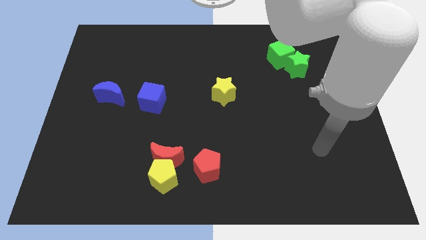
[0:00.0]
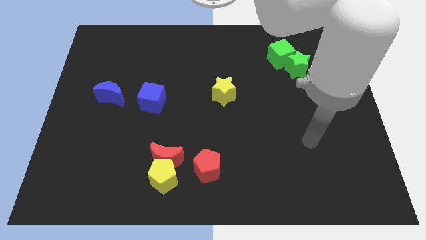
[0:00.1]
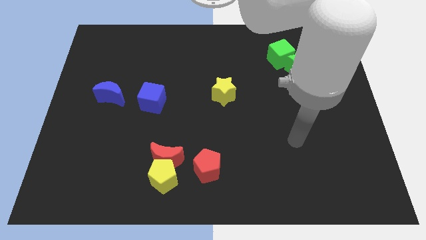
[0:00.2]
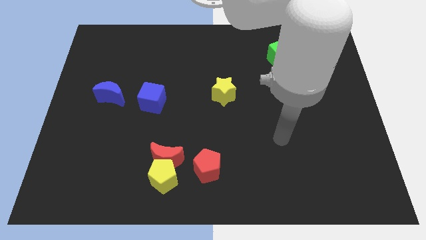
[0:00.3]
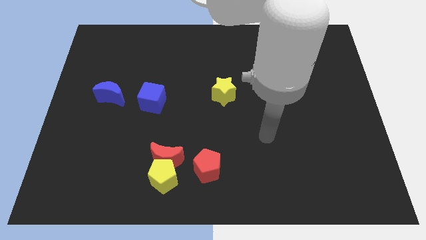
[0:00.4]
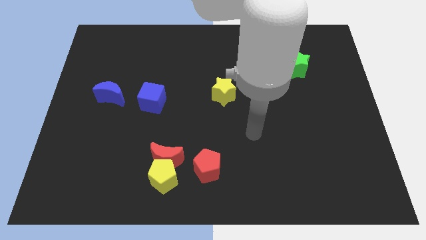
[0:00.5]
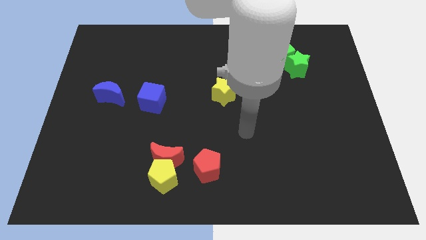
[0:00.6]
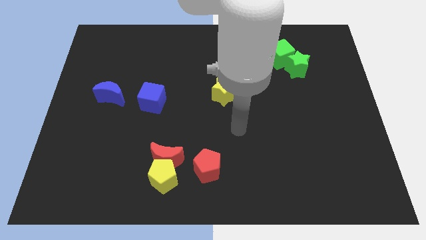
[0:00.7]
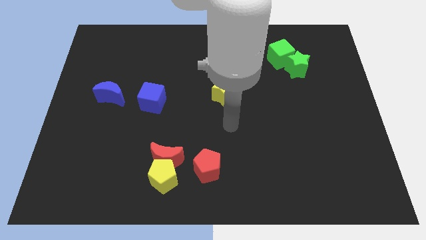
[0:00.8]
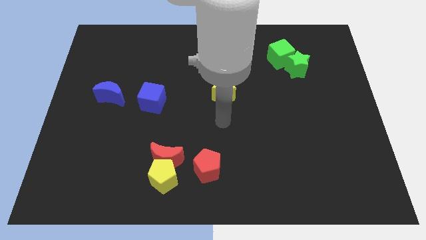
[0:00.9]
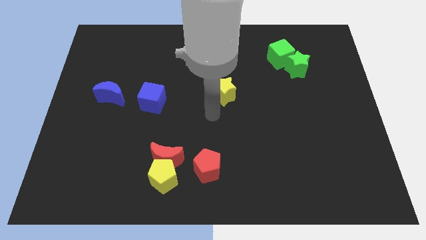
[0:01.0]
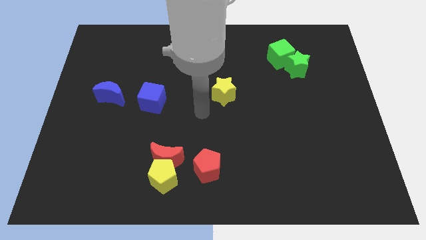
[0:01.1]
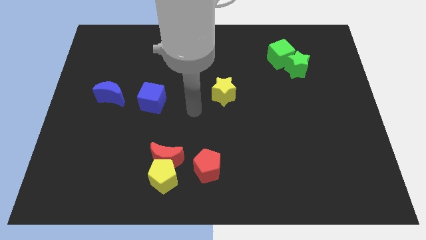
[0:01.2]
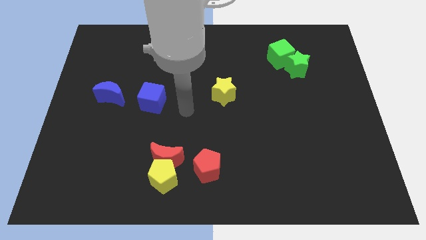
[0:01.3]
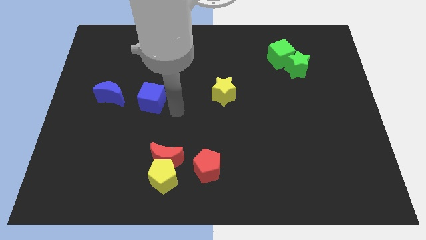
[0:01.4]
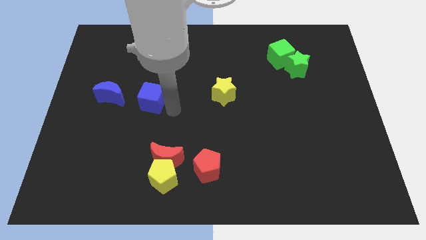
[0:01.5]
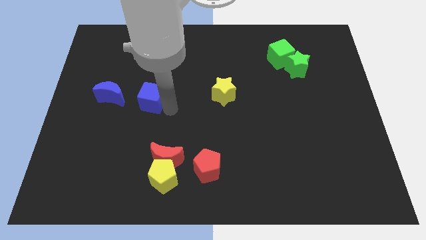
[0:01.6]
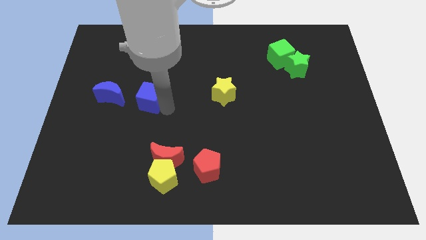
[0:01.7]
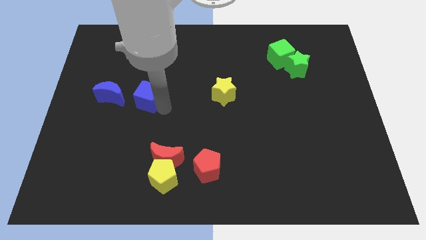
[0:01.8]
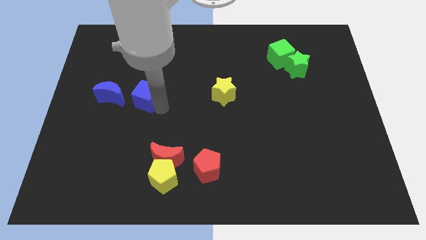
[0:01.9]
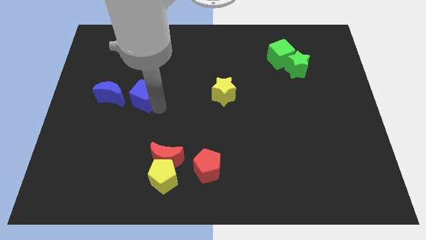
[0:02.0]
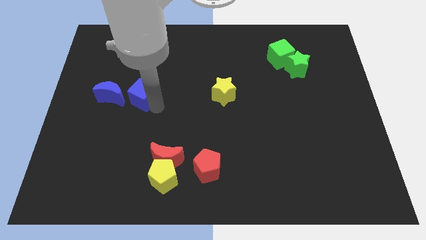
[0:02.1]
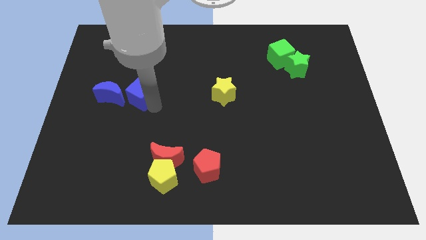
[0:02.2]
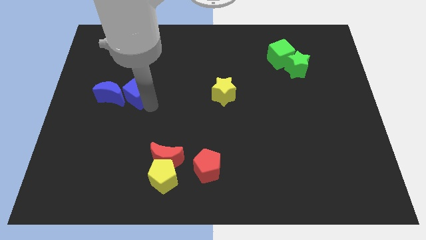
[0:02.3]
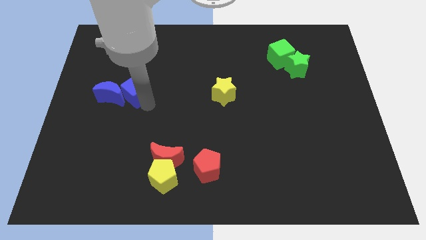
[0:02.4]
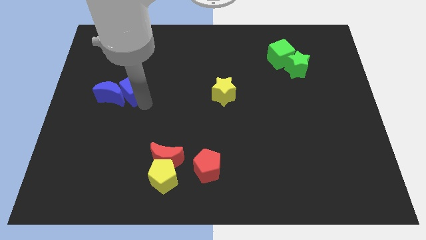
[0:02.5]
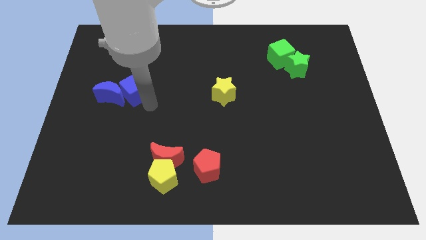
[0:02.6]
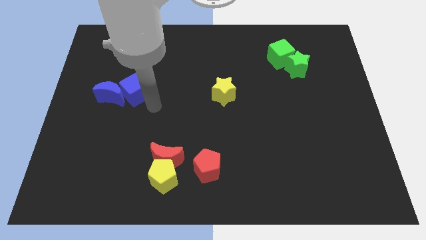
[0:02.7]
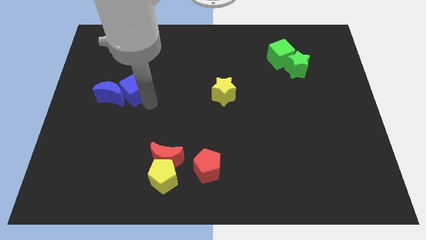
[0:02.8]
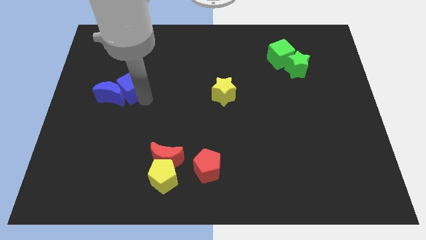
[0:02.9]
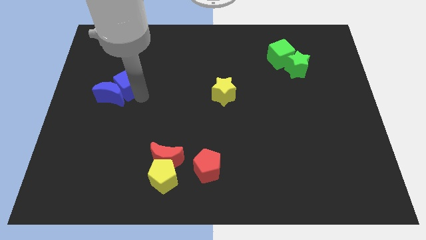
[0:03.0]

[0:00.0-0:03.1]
push the blue cube a little up and then to the left

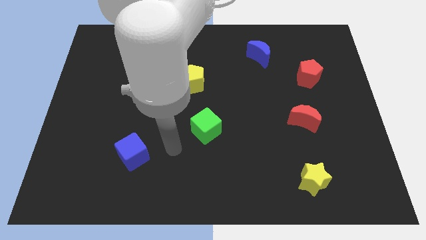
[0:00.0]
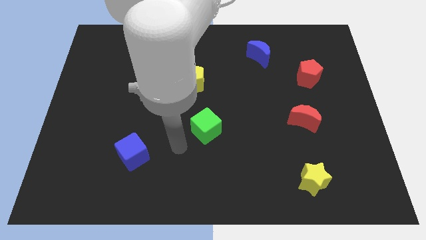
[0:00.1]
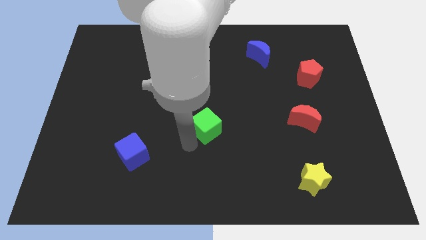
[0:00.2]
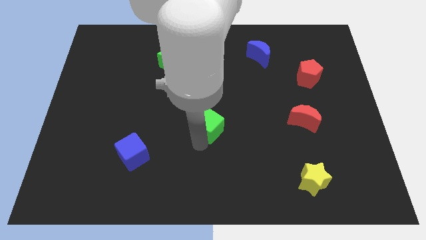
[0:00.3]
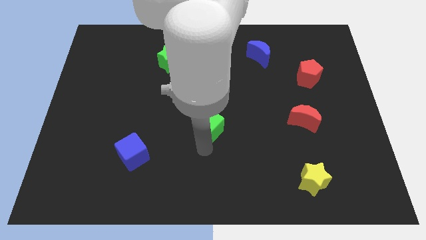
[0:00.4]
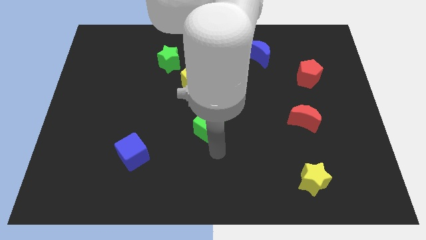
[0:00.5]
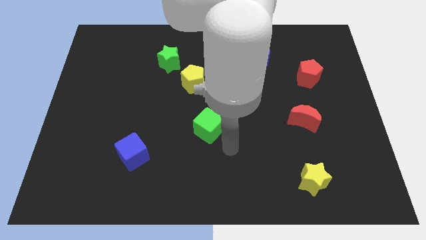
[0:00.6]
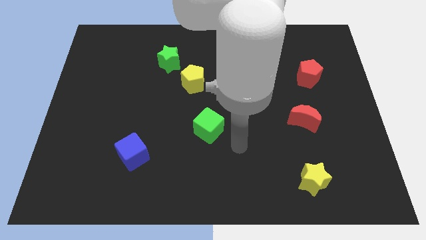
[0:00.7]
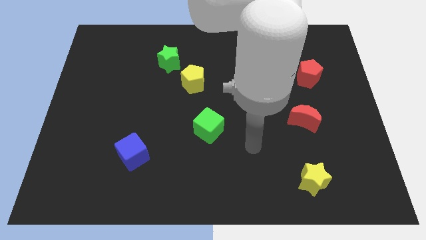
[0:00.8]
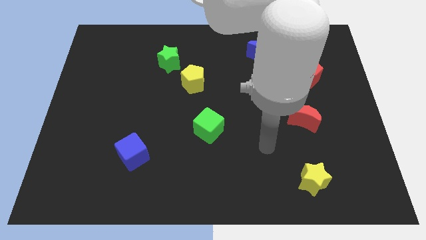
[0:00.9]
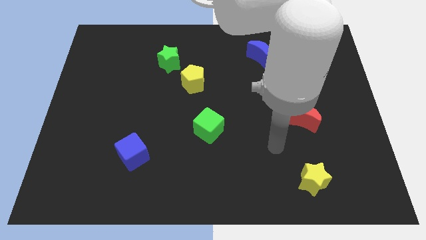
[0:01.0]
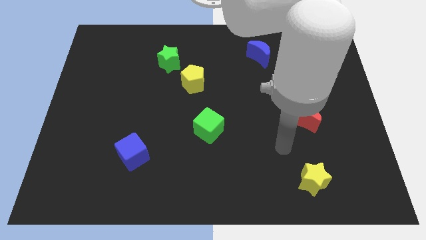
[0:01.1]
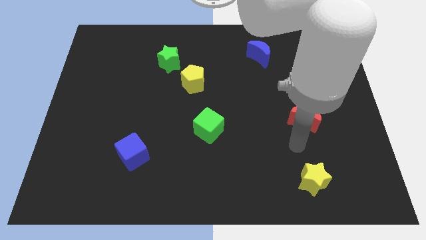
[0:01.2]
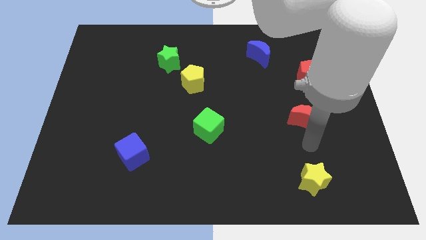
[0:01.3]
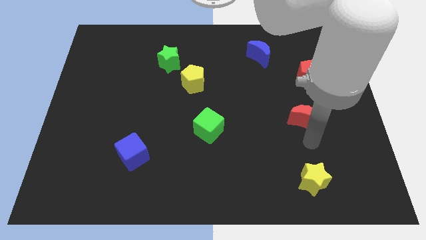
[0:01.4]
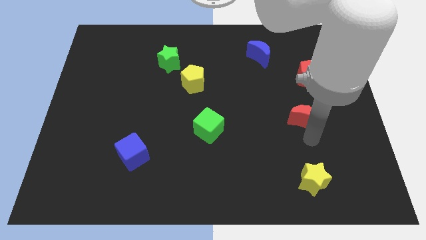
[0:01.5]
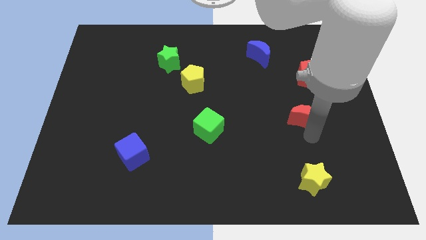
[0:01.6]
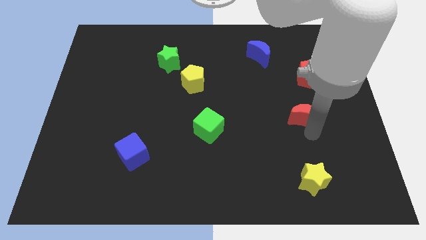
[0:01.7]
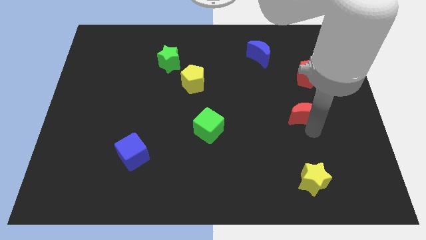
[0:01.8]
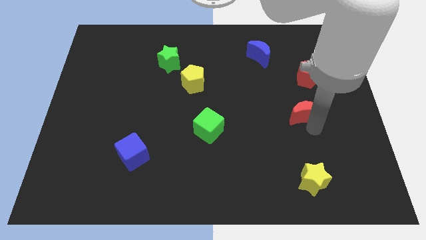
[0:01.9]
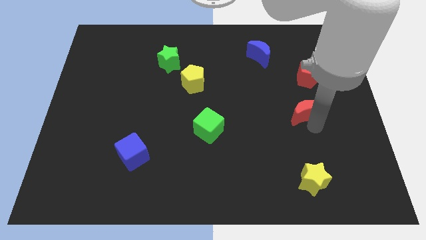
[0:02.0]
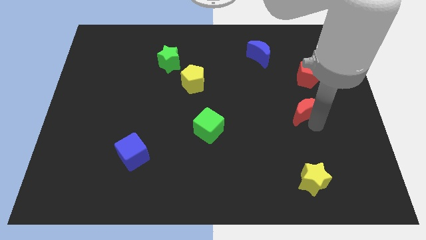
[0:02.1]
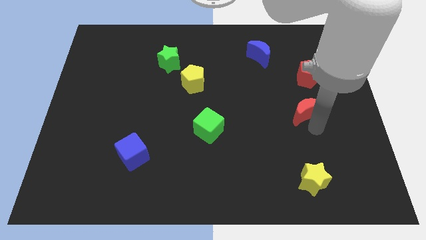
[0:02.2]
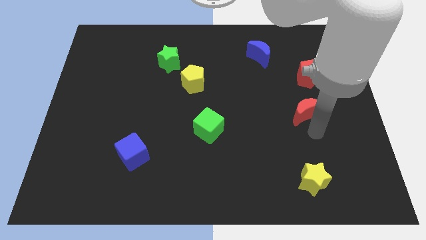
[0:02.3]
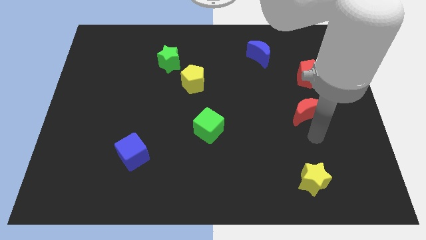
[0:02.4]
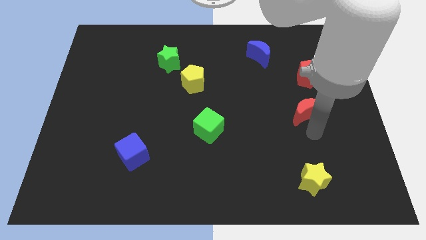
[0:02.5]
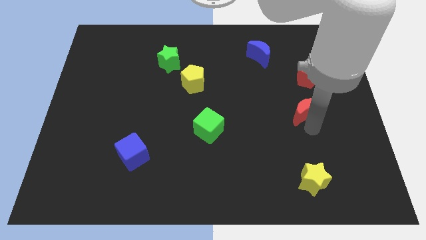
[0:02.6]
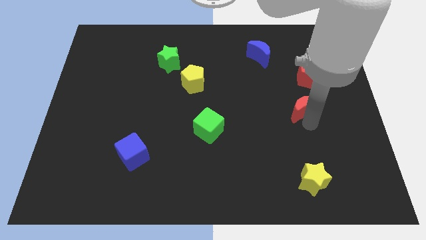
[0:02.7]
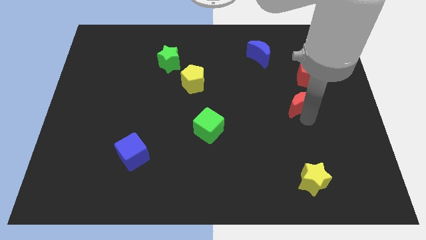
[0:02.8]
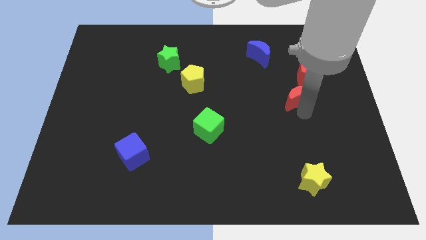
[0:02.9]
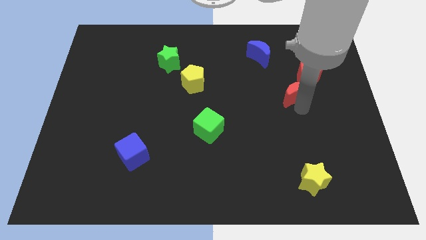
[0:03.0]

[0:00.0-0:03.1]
slightly push the red moon upwards

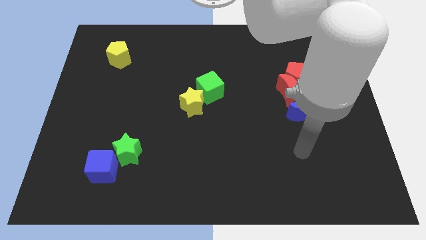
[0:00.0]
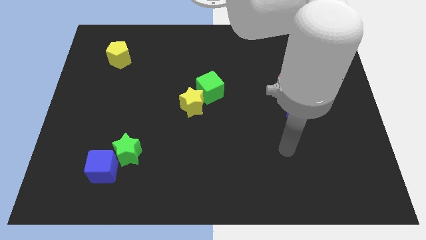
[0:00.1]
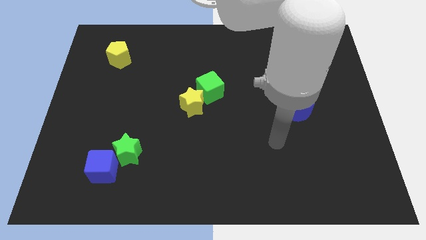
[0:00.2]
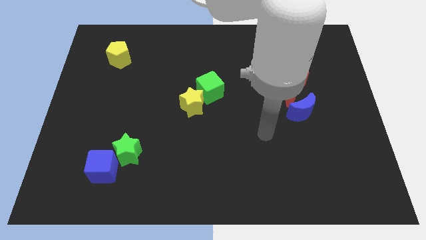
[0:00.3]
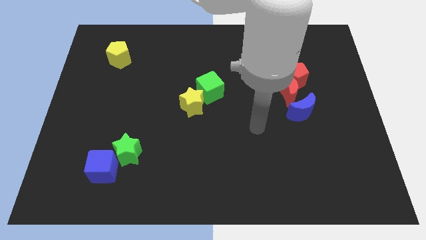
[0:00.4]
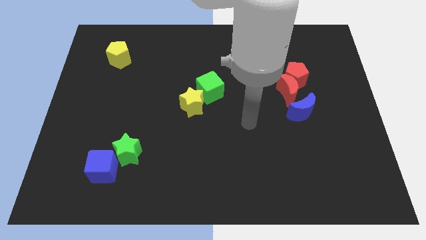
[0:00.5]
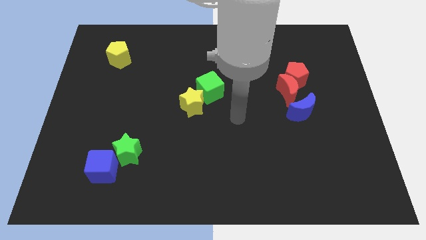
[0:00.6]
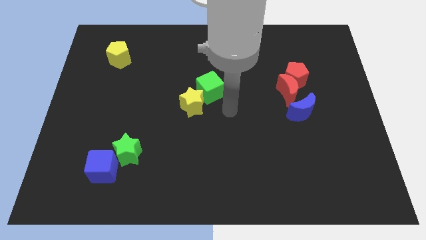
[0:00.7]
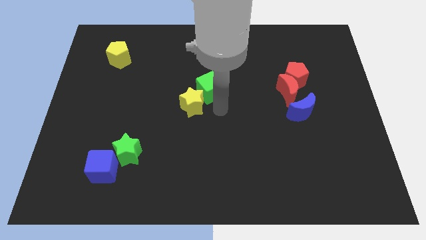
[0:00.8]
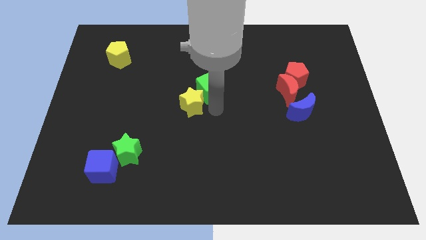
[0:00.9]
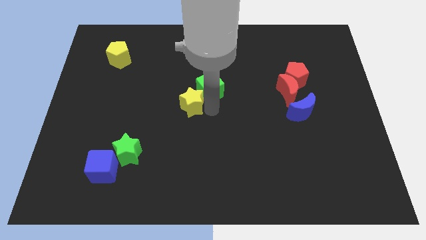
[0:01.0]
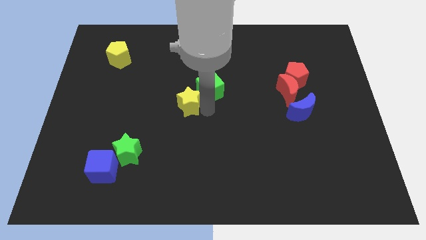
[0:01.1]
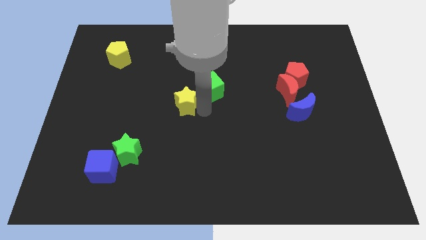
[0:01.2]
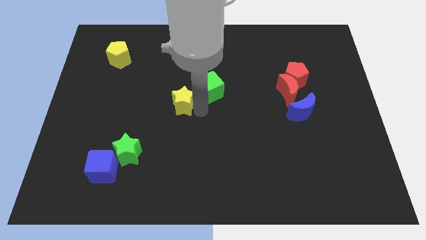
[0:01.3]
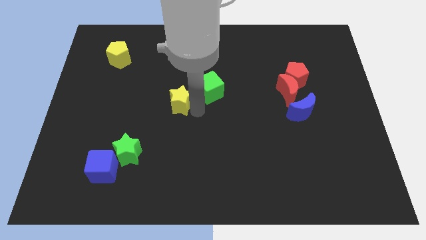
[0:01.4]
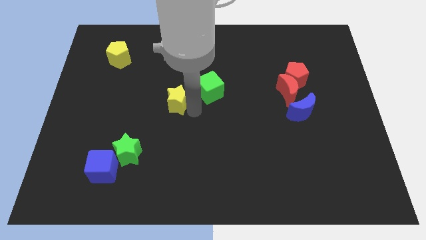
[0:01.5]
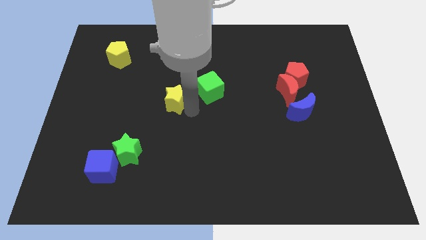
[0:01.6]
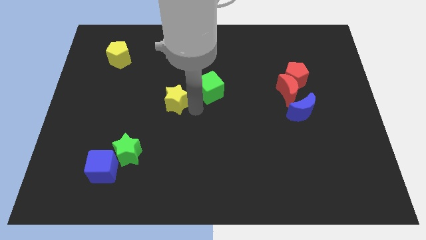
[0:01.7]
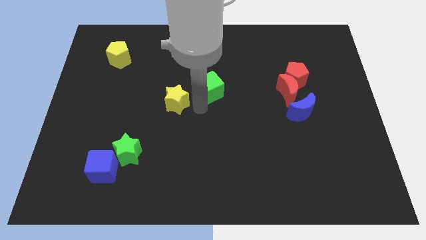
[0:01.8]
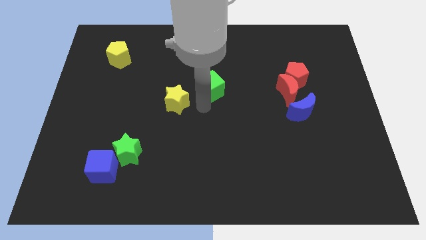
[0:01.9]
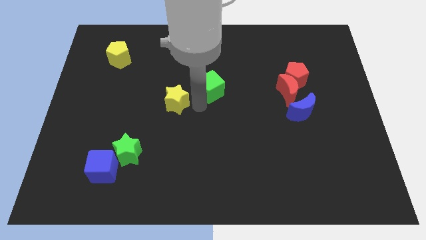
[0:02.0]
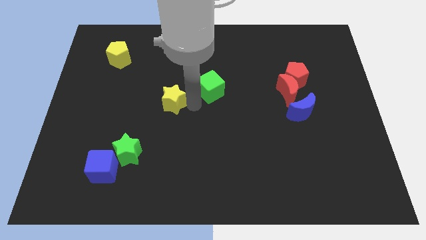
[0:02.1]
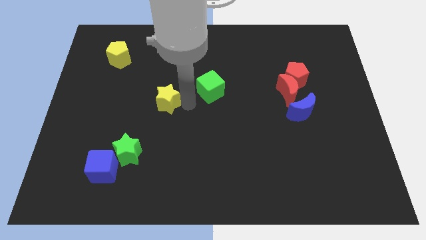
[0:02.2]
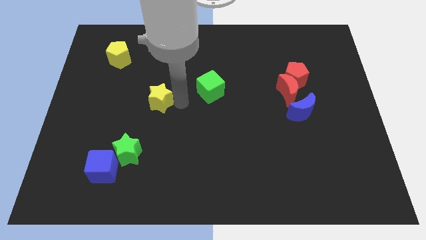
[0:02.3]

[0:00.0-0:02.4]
move the yellow star to the left a little bit

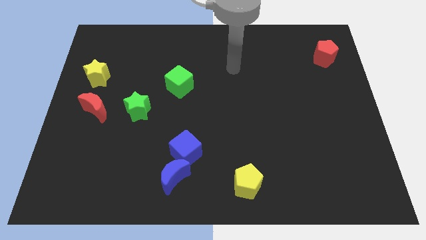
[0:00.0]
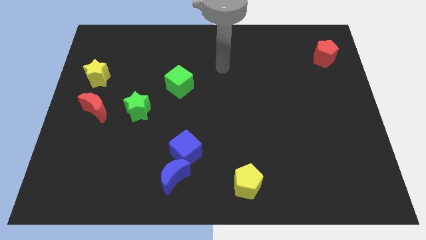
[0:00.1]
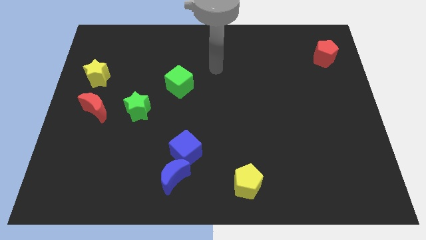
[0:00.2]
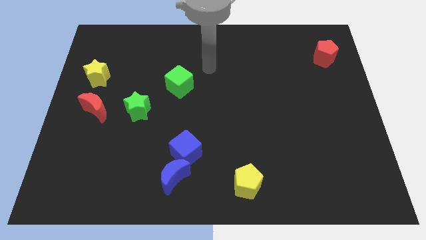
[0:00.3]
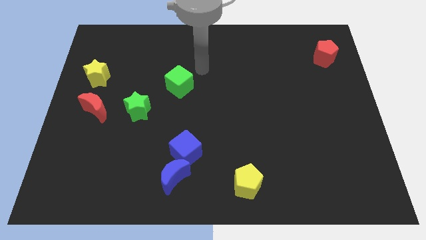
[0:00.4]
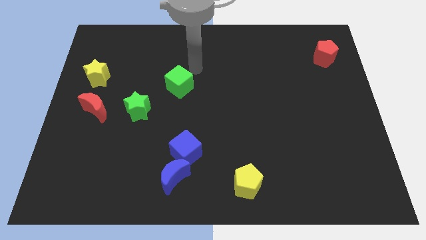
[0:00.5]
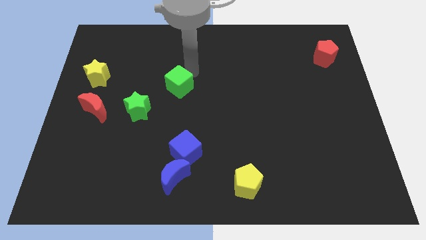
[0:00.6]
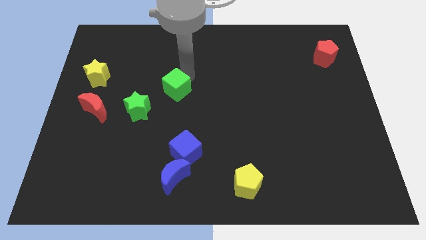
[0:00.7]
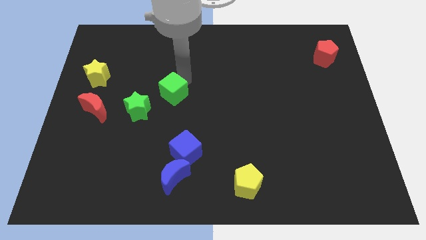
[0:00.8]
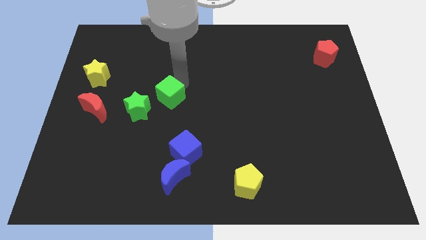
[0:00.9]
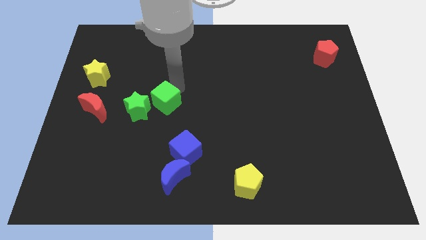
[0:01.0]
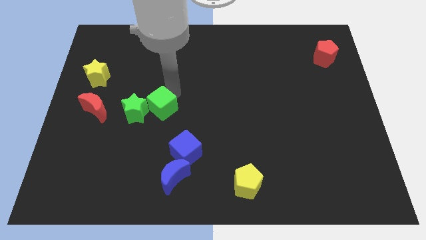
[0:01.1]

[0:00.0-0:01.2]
slightly push the green cube diagonally downwards and to the left
